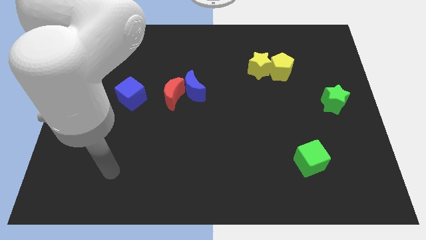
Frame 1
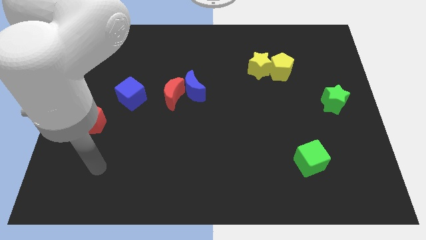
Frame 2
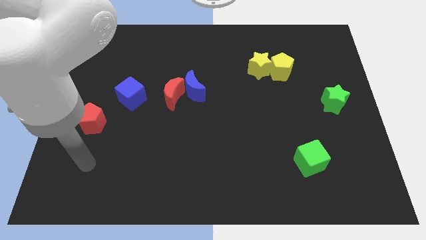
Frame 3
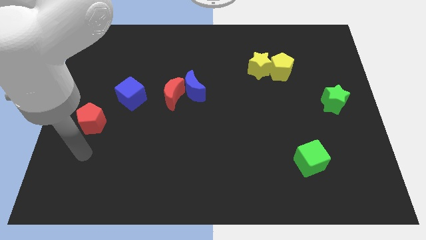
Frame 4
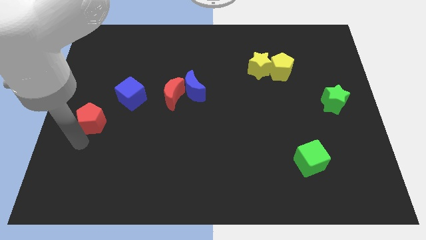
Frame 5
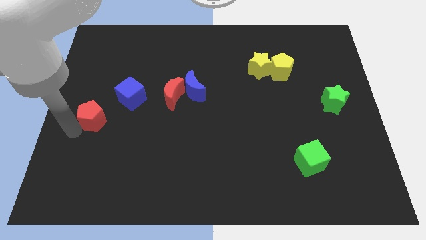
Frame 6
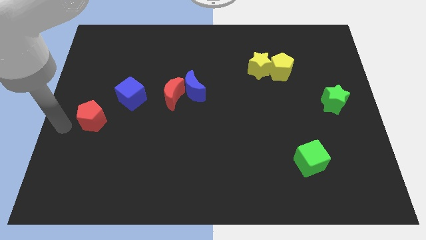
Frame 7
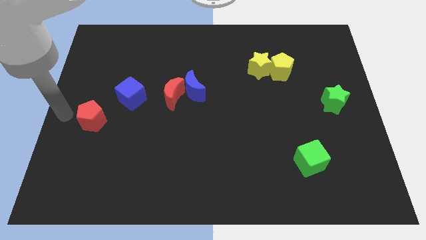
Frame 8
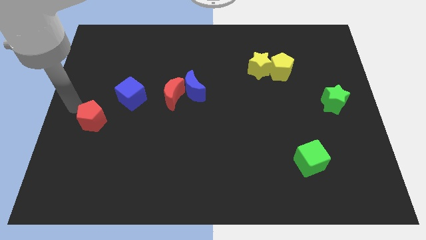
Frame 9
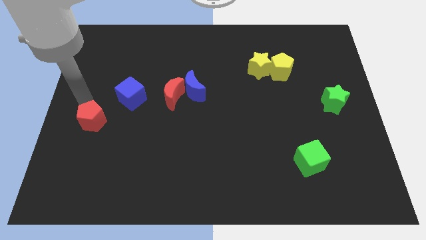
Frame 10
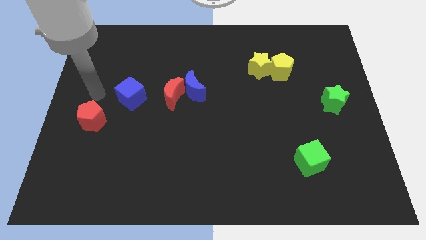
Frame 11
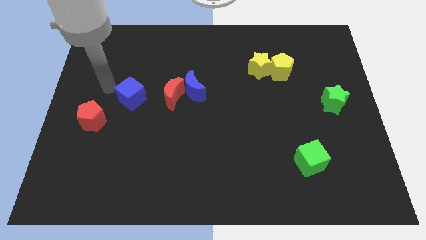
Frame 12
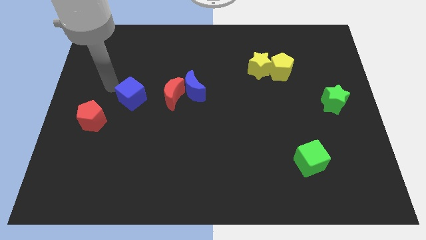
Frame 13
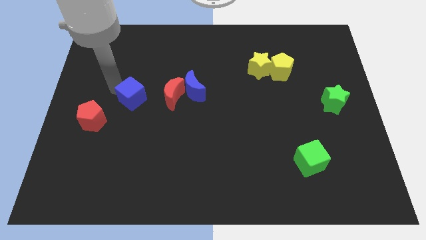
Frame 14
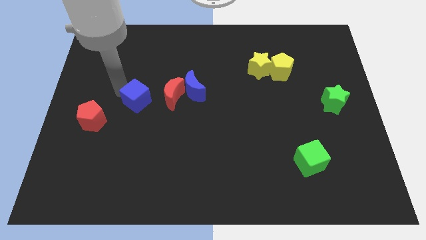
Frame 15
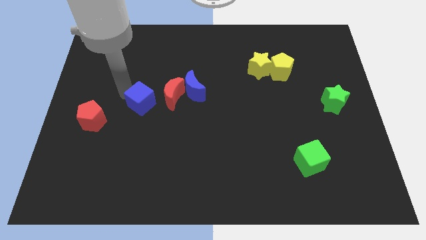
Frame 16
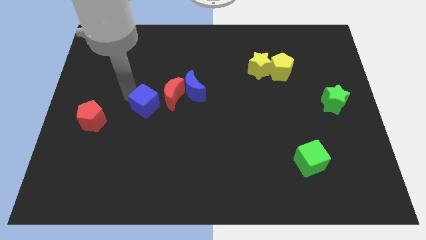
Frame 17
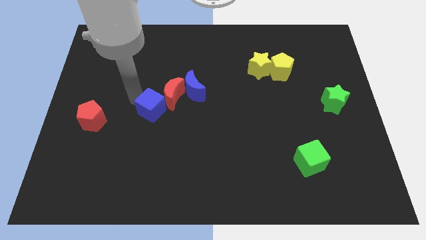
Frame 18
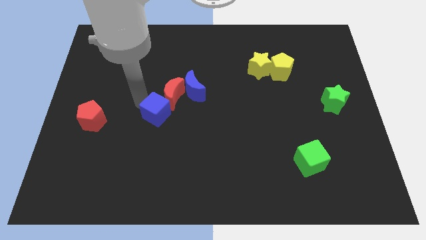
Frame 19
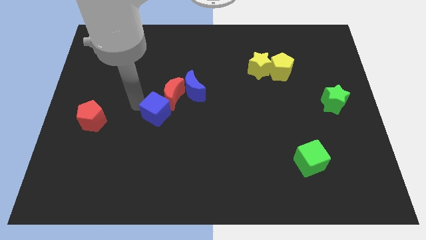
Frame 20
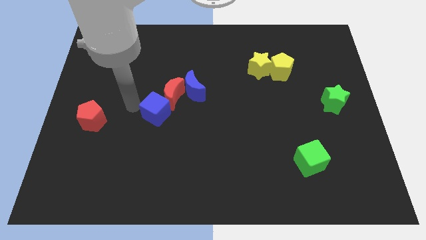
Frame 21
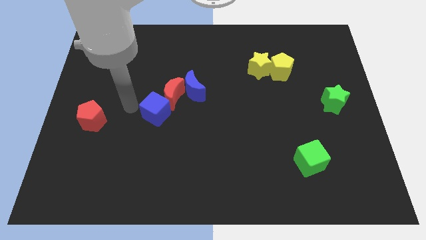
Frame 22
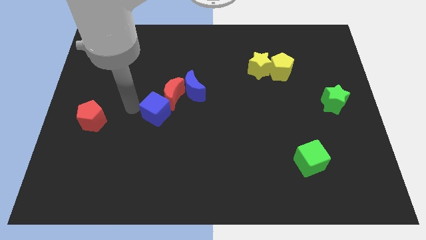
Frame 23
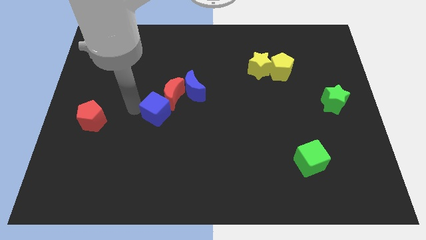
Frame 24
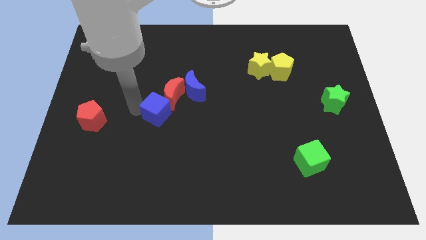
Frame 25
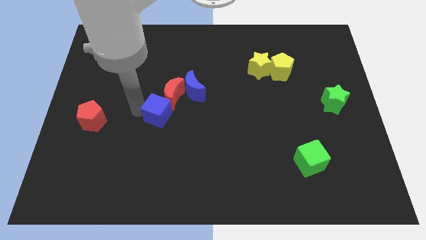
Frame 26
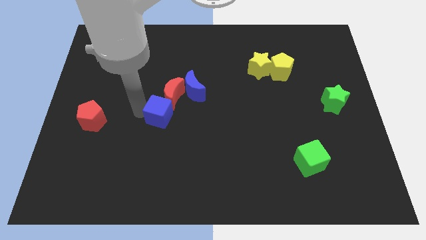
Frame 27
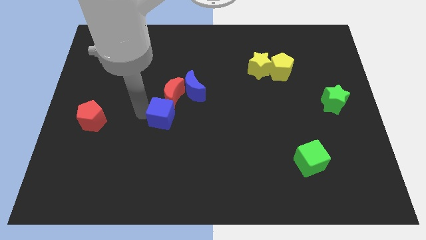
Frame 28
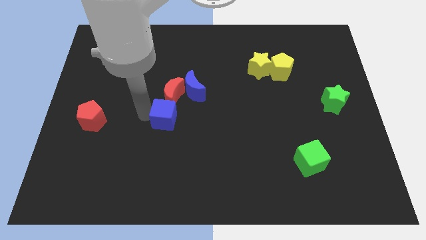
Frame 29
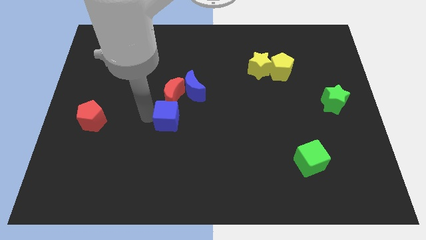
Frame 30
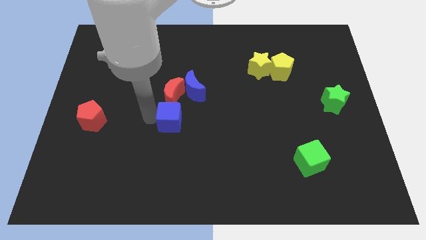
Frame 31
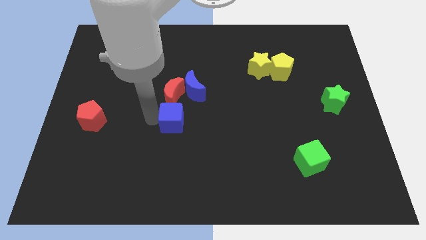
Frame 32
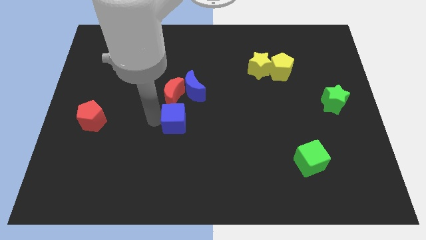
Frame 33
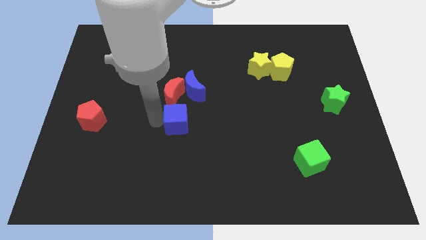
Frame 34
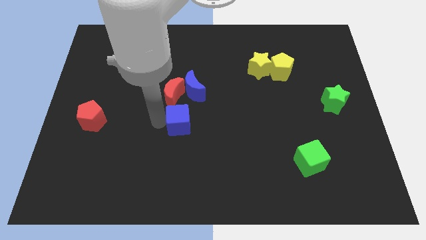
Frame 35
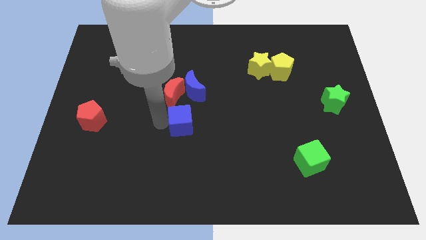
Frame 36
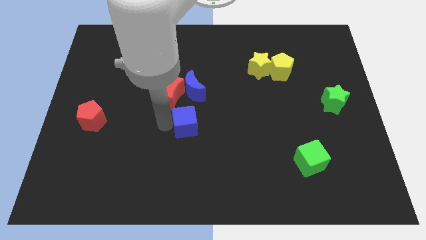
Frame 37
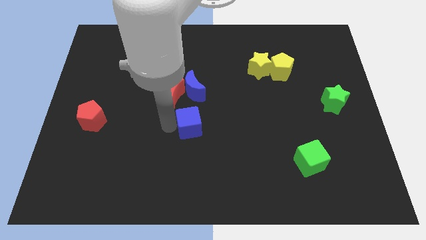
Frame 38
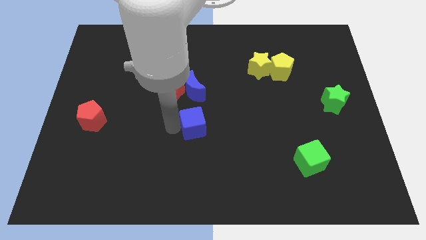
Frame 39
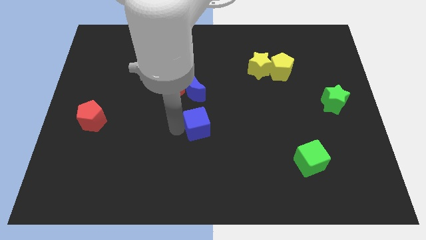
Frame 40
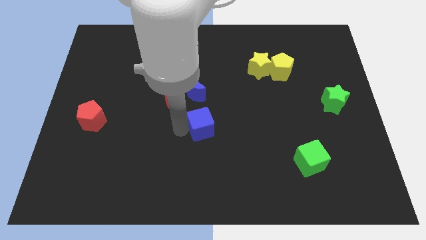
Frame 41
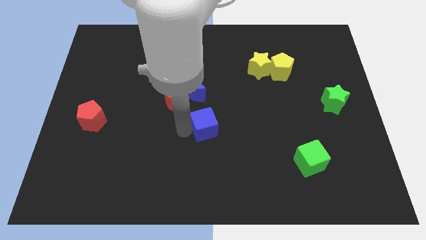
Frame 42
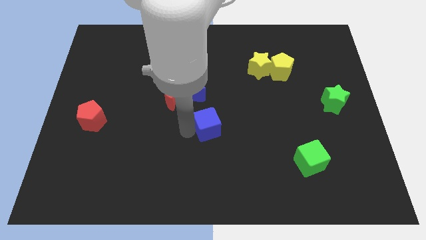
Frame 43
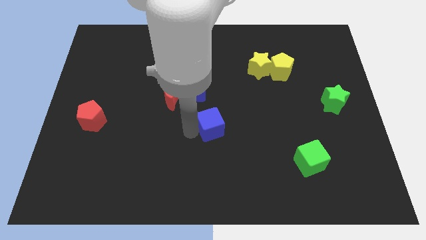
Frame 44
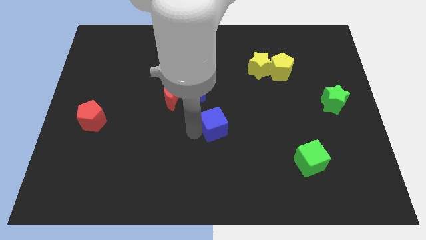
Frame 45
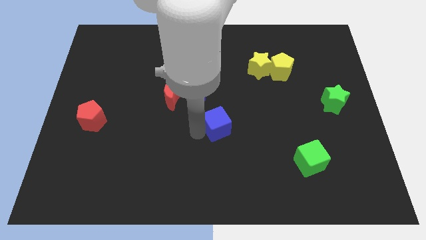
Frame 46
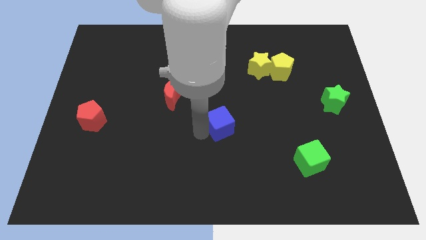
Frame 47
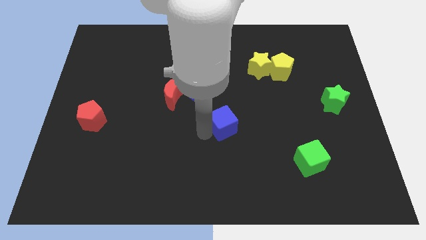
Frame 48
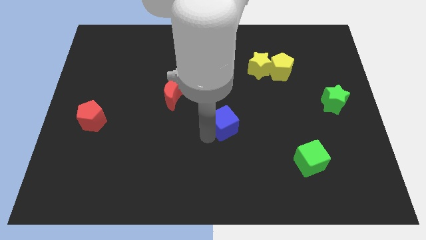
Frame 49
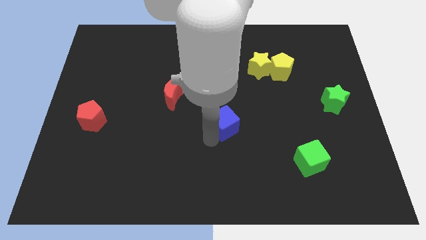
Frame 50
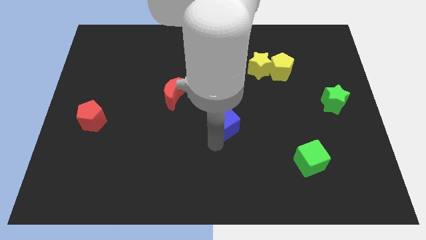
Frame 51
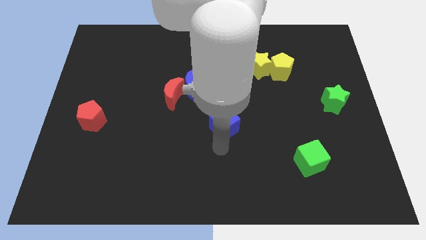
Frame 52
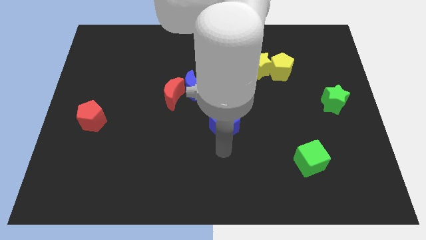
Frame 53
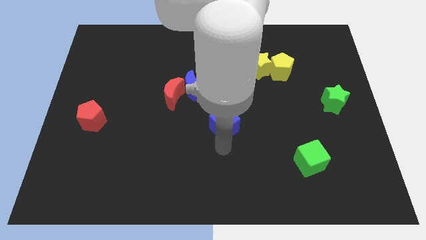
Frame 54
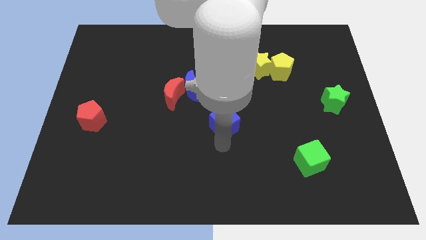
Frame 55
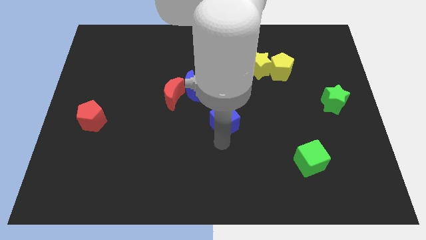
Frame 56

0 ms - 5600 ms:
push the blue cube right

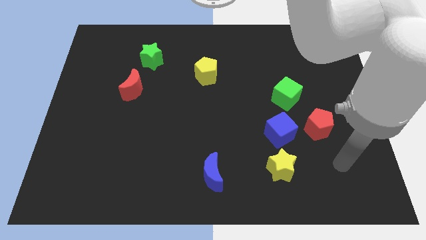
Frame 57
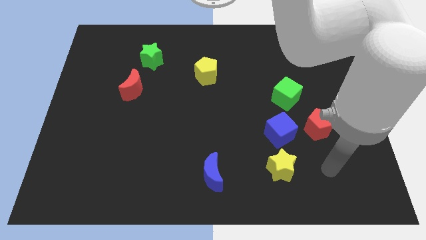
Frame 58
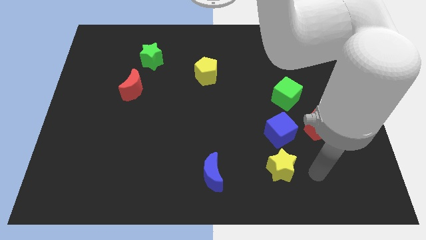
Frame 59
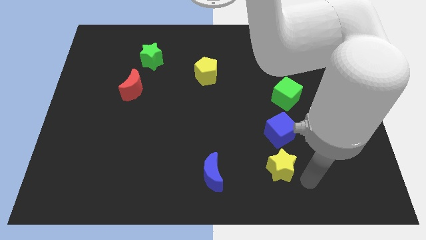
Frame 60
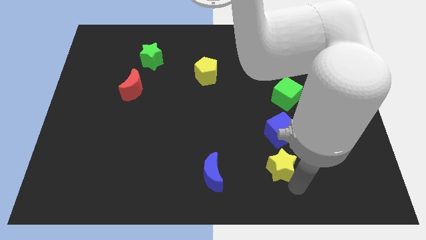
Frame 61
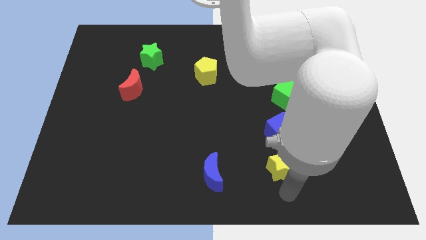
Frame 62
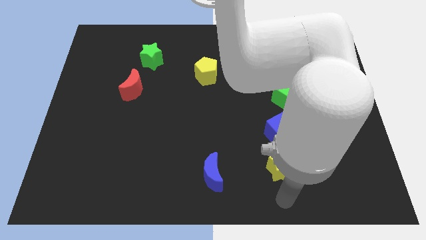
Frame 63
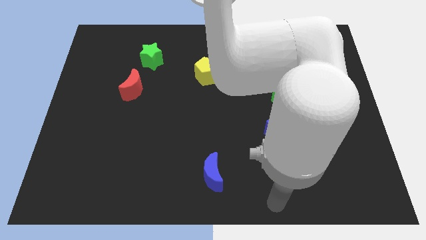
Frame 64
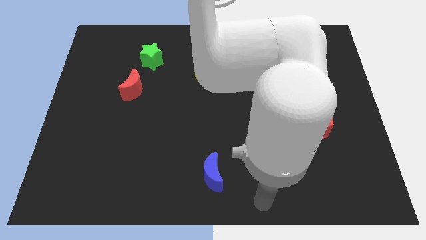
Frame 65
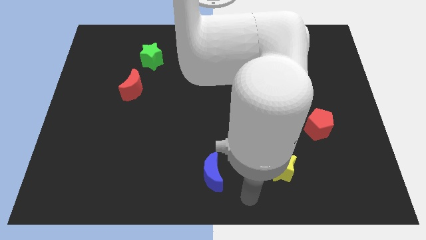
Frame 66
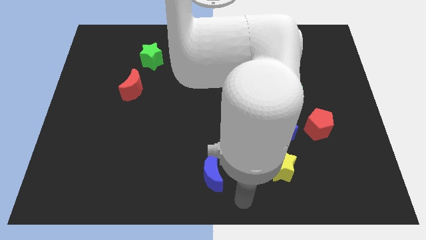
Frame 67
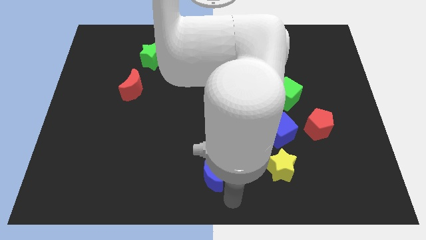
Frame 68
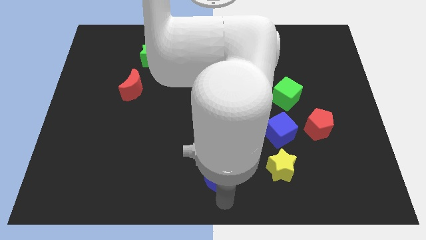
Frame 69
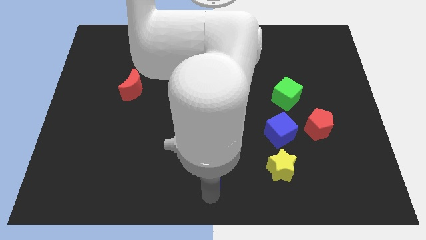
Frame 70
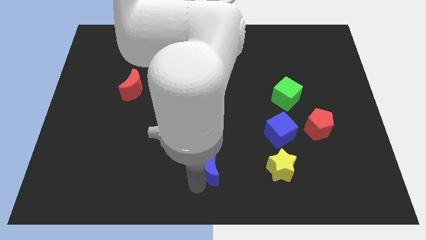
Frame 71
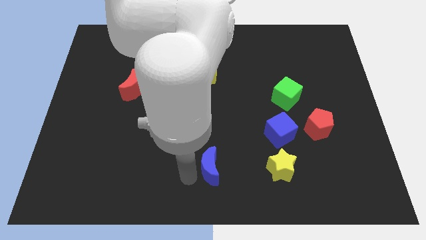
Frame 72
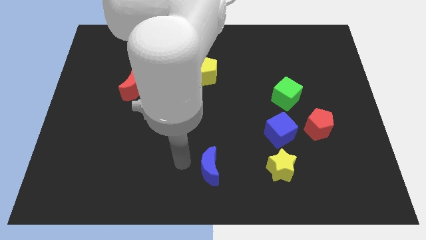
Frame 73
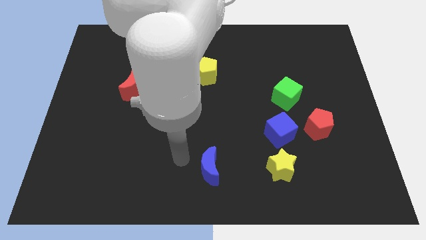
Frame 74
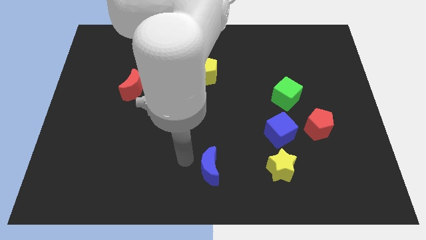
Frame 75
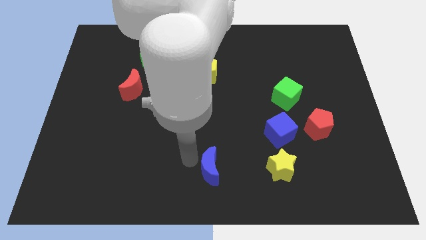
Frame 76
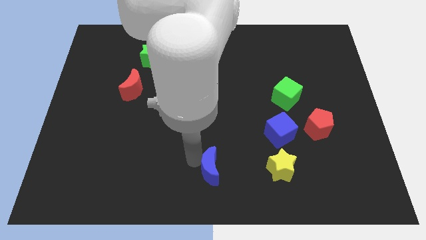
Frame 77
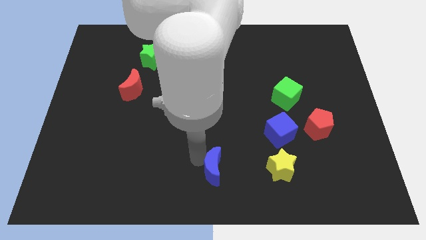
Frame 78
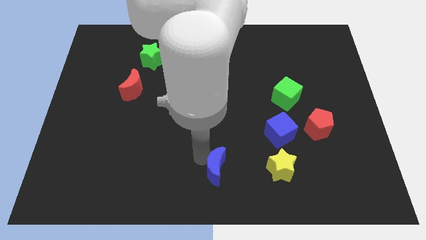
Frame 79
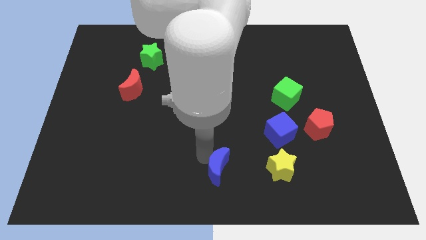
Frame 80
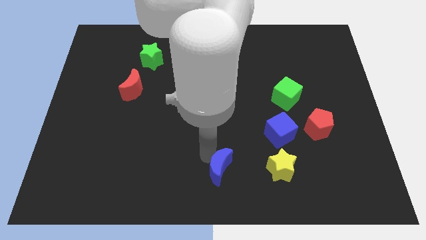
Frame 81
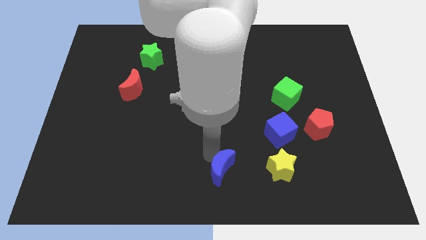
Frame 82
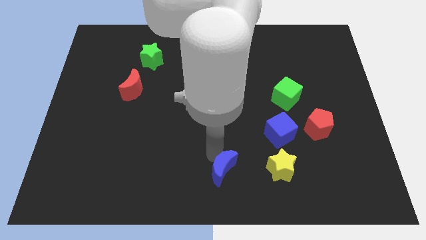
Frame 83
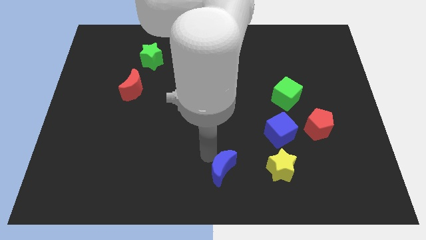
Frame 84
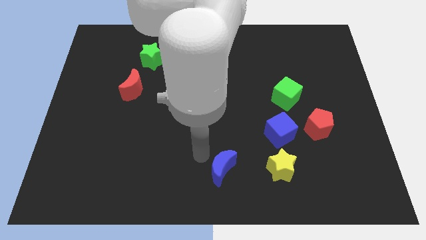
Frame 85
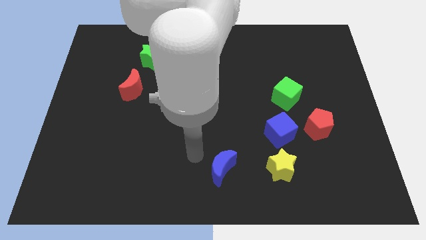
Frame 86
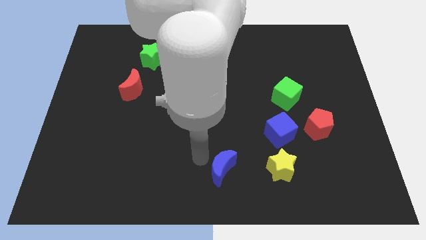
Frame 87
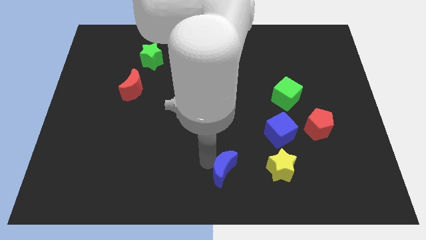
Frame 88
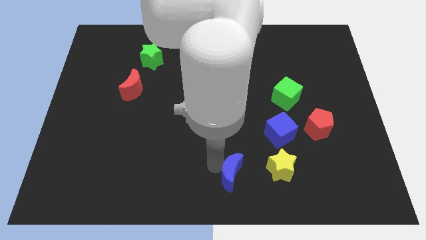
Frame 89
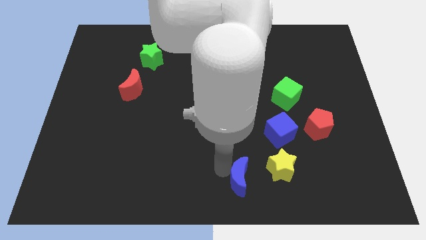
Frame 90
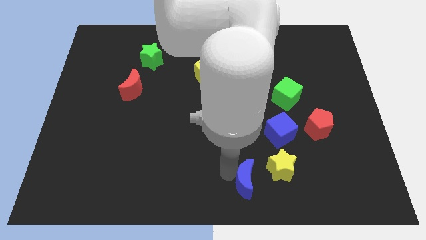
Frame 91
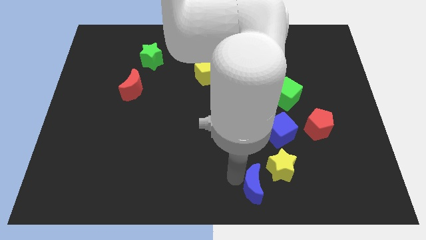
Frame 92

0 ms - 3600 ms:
slightly push the blue moon right
